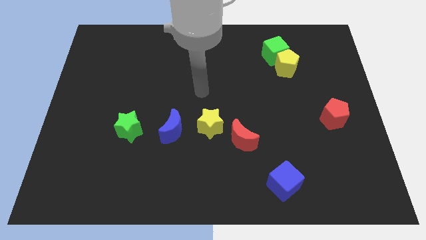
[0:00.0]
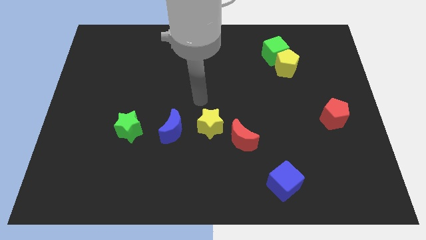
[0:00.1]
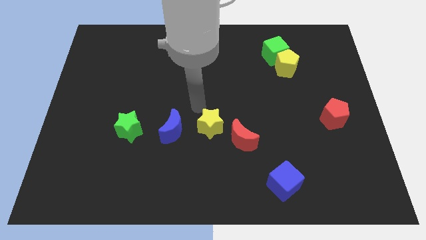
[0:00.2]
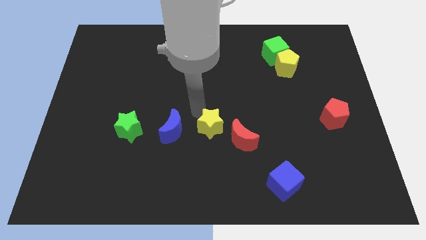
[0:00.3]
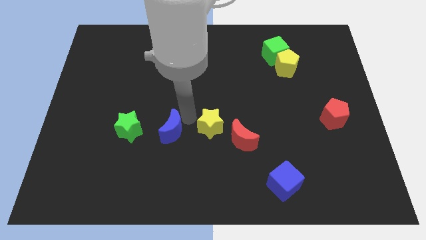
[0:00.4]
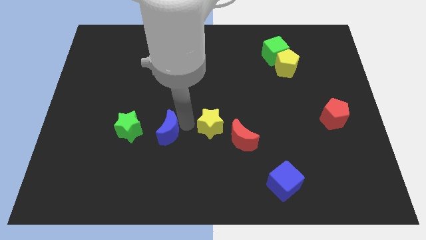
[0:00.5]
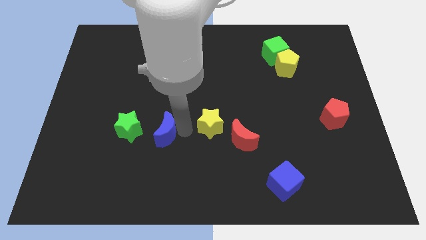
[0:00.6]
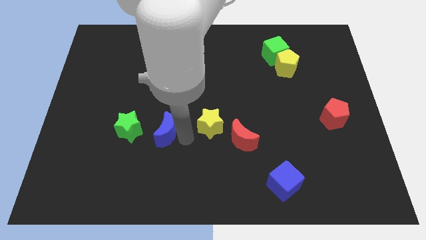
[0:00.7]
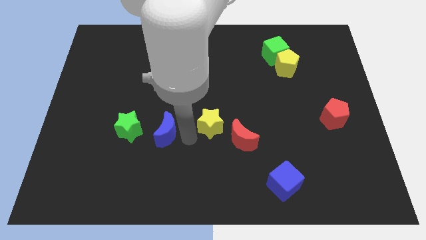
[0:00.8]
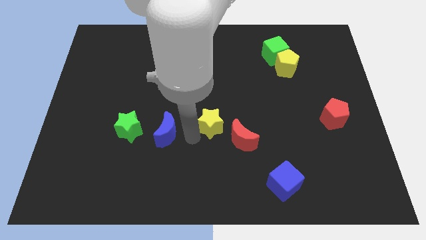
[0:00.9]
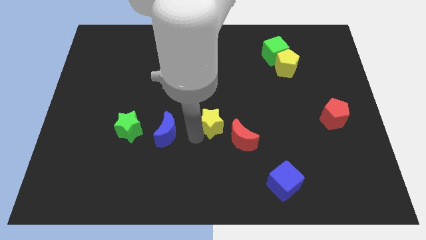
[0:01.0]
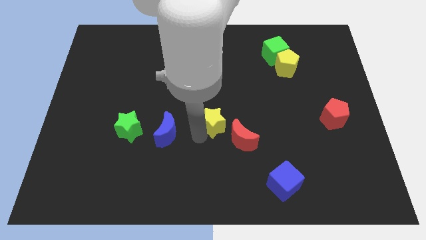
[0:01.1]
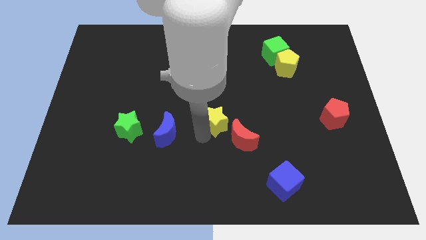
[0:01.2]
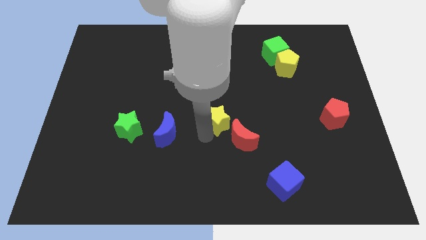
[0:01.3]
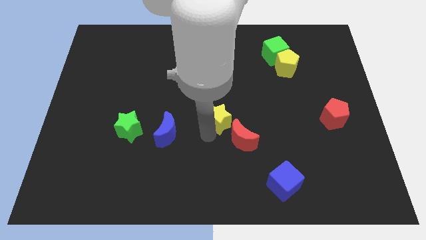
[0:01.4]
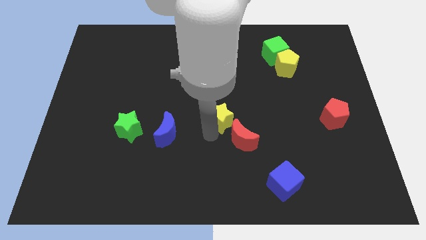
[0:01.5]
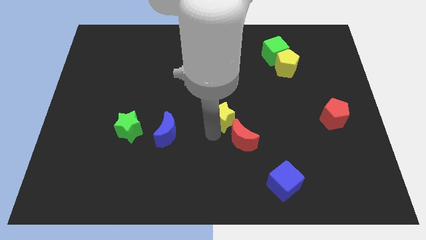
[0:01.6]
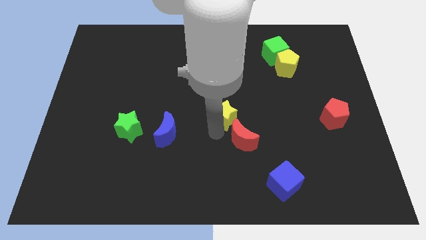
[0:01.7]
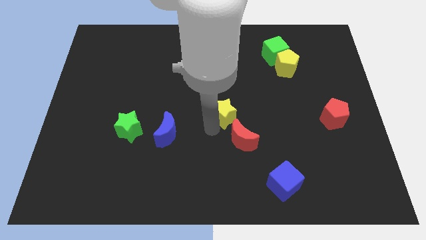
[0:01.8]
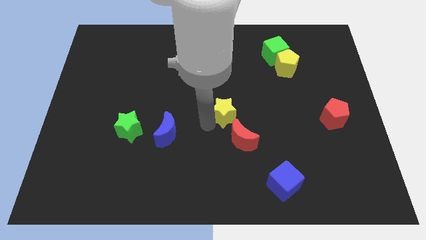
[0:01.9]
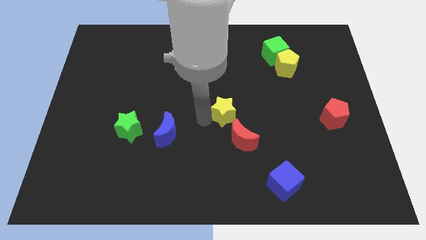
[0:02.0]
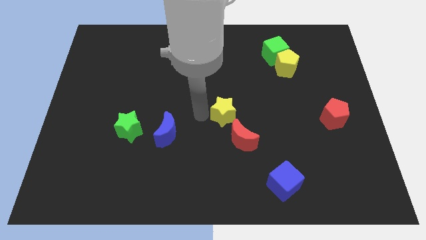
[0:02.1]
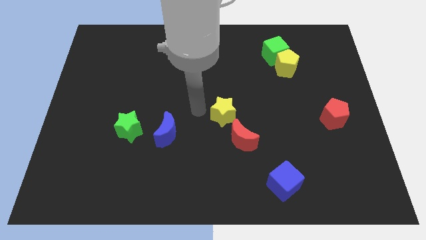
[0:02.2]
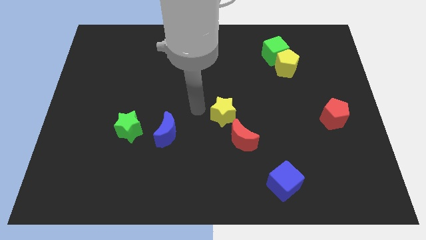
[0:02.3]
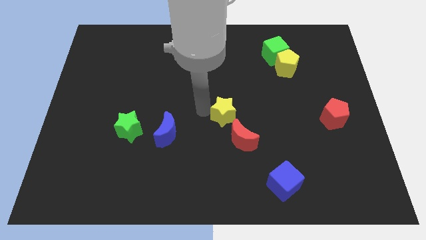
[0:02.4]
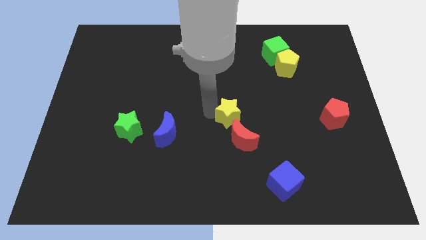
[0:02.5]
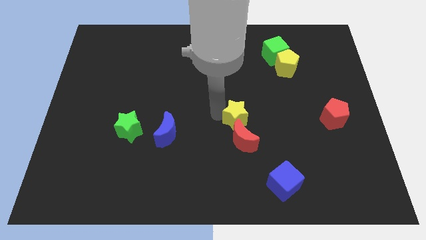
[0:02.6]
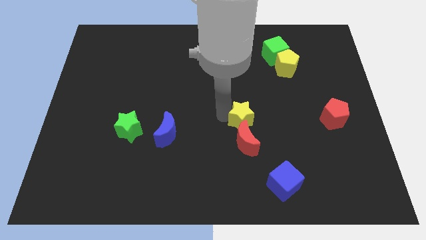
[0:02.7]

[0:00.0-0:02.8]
push the yellow star a little bit right

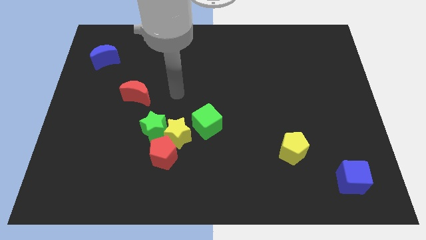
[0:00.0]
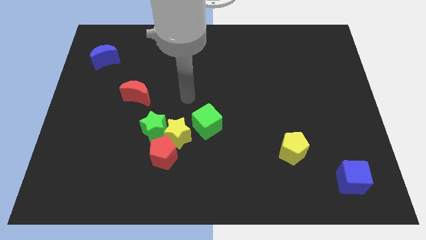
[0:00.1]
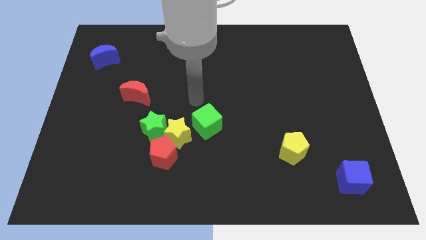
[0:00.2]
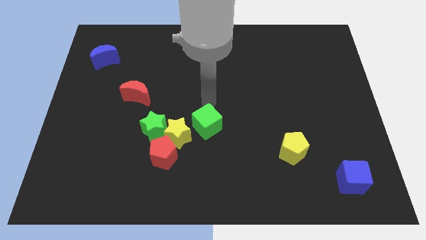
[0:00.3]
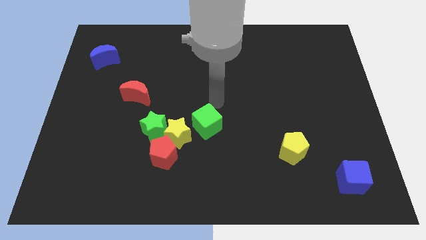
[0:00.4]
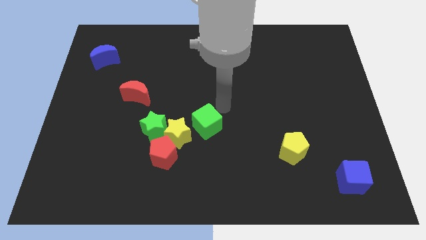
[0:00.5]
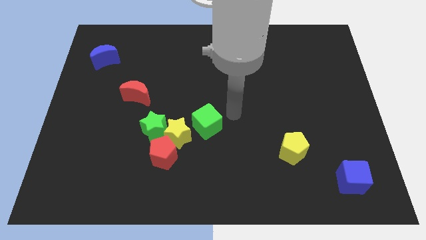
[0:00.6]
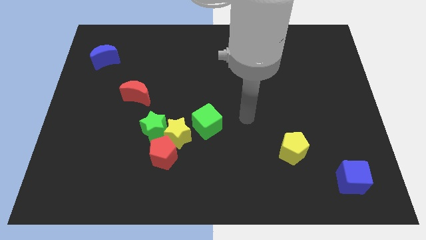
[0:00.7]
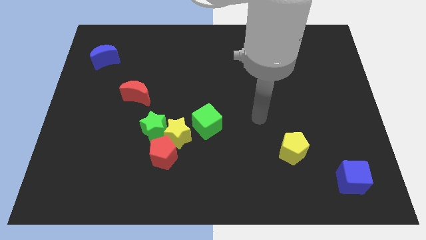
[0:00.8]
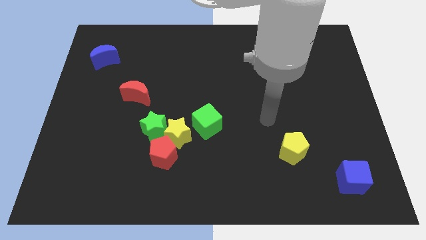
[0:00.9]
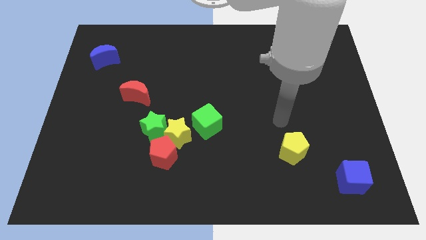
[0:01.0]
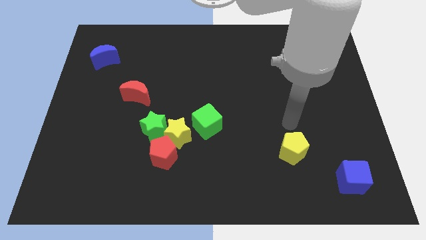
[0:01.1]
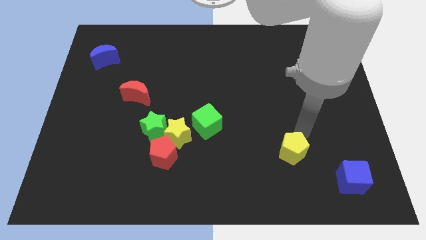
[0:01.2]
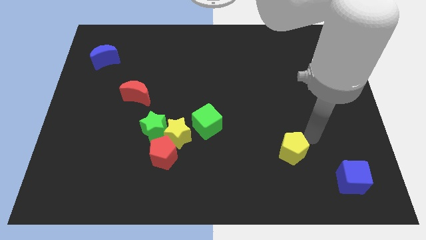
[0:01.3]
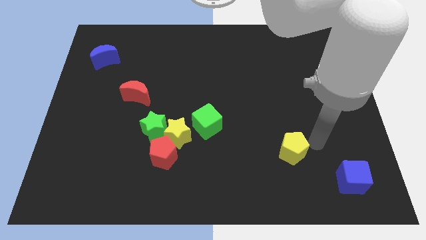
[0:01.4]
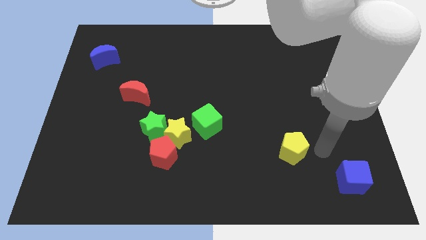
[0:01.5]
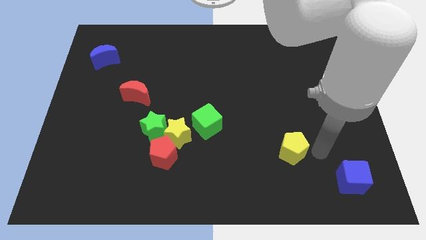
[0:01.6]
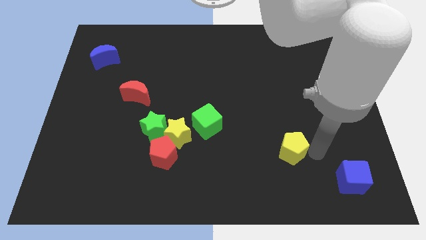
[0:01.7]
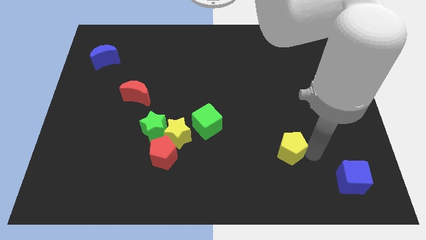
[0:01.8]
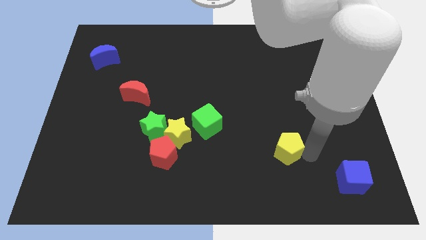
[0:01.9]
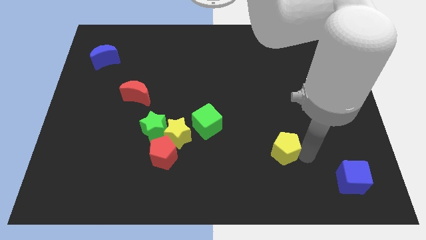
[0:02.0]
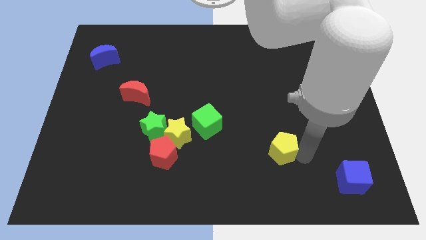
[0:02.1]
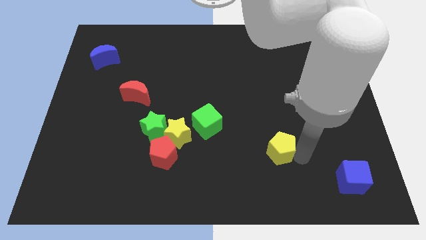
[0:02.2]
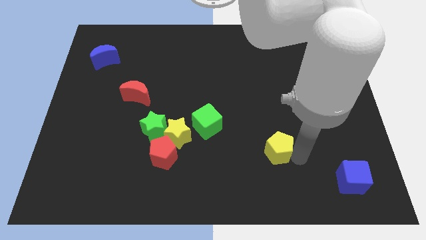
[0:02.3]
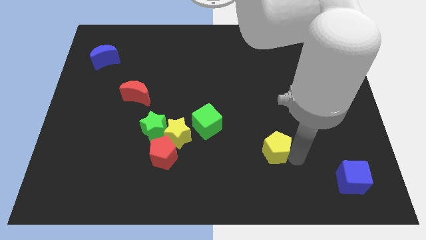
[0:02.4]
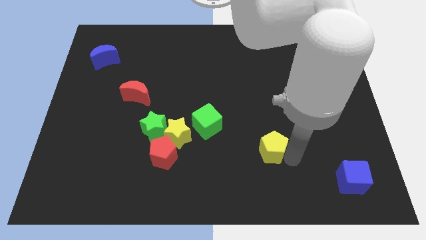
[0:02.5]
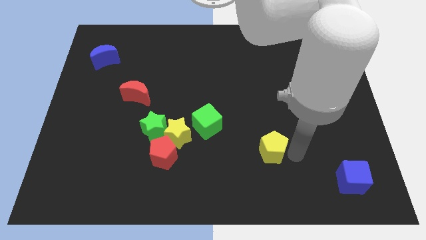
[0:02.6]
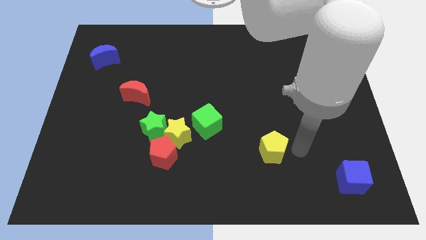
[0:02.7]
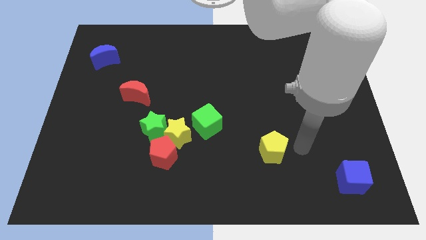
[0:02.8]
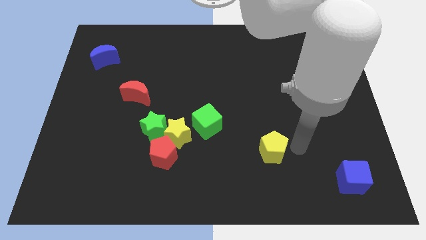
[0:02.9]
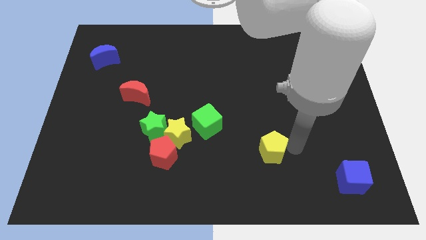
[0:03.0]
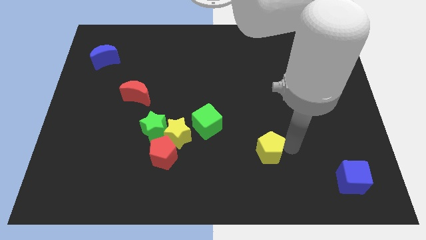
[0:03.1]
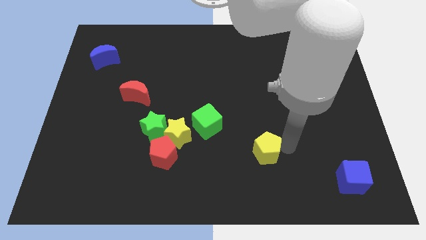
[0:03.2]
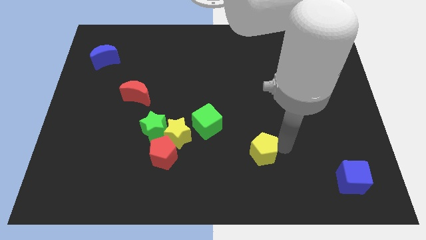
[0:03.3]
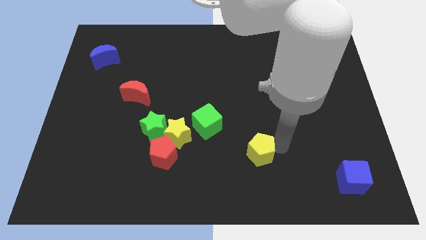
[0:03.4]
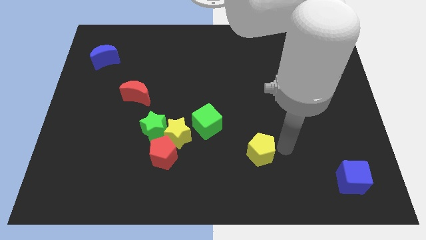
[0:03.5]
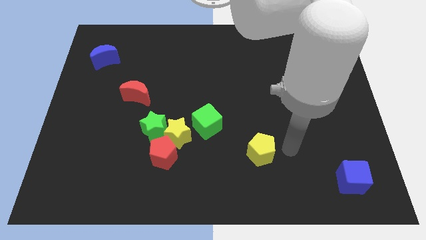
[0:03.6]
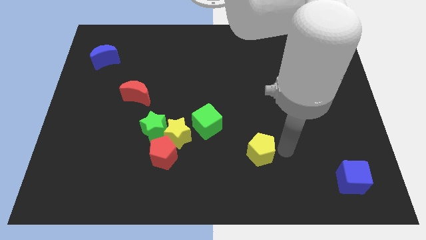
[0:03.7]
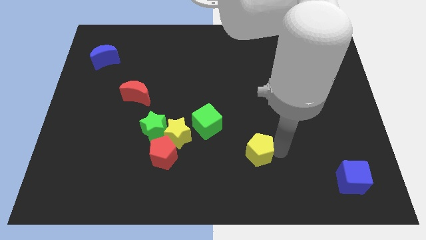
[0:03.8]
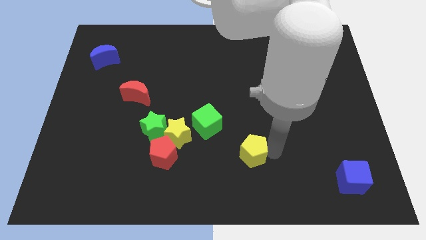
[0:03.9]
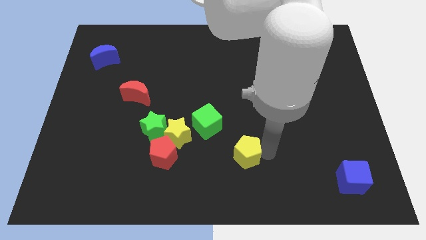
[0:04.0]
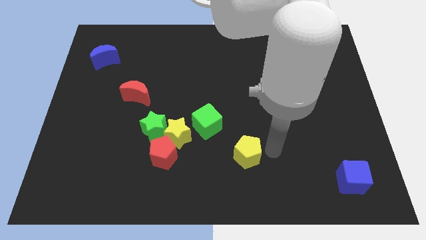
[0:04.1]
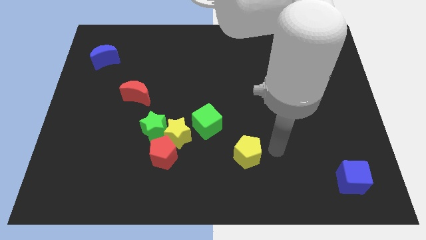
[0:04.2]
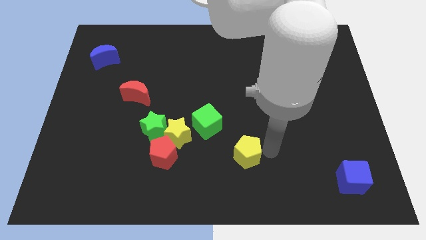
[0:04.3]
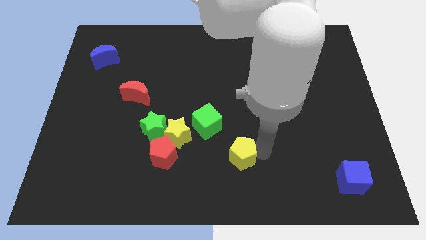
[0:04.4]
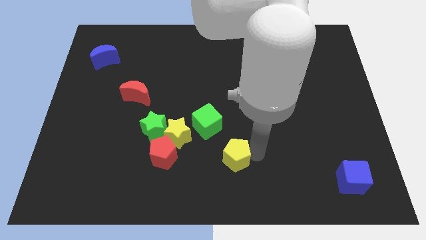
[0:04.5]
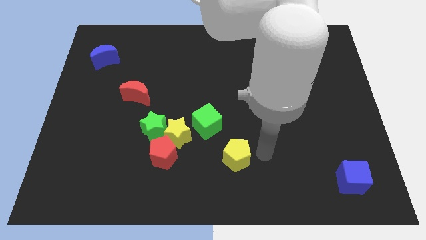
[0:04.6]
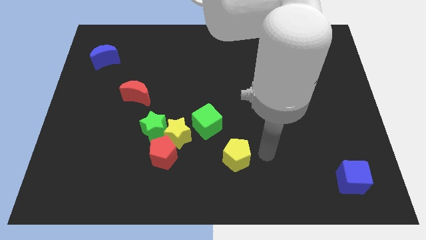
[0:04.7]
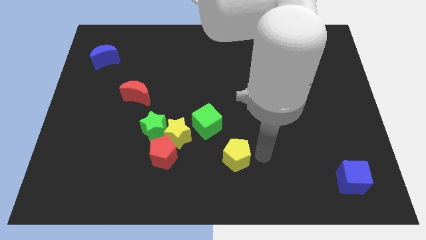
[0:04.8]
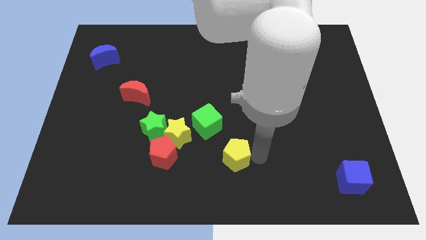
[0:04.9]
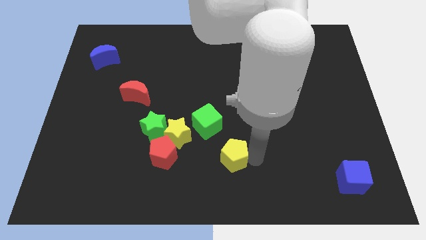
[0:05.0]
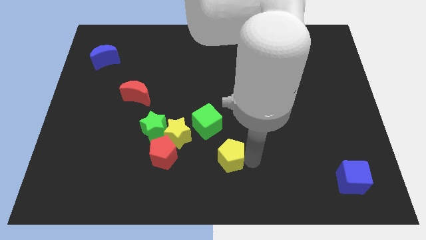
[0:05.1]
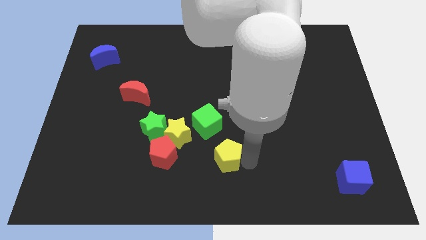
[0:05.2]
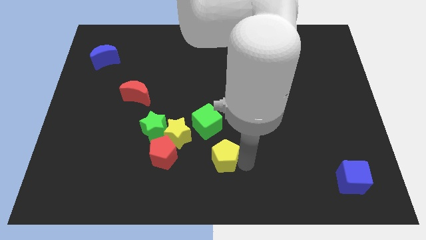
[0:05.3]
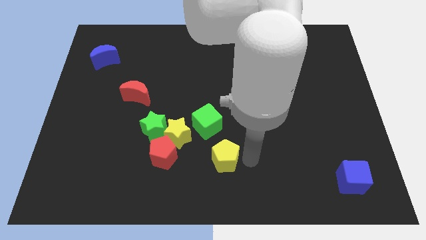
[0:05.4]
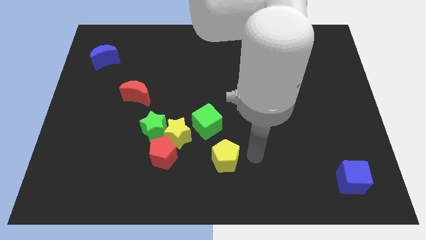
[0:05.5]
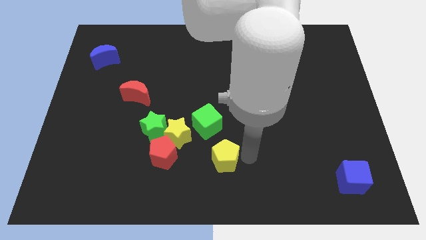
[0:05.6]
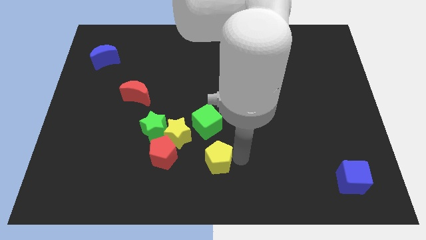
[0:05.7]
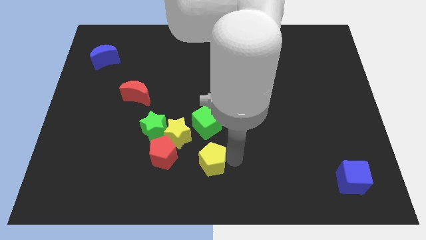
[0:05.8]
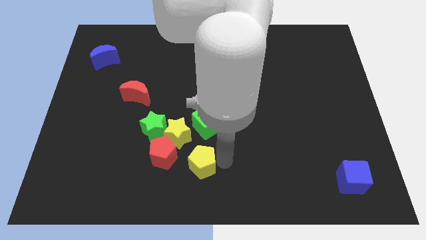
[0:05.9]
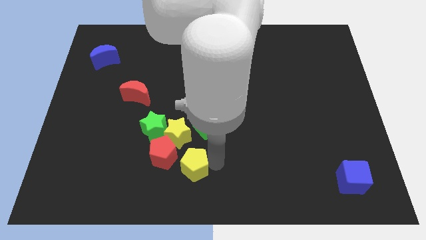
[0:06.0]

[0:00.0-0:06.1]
push the yellow pentagon left
